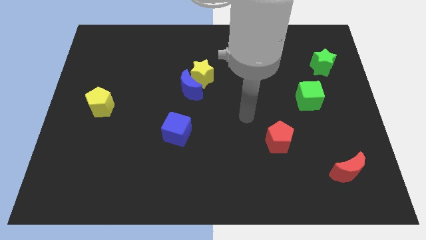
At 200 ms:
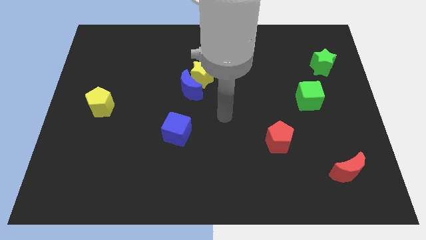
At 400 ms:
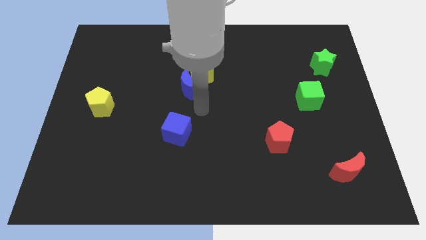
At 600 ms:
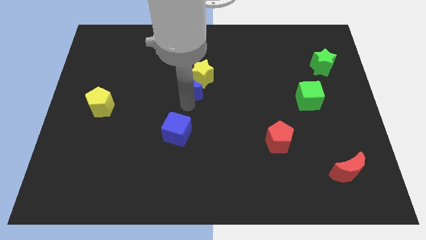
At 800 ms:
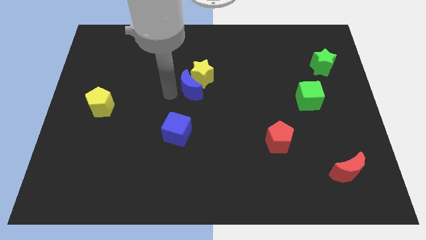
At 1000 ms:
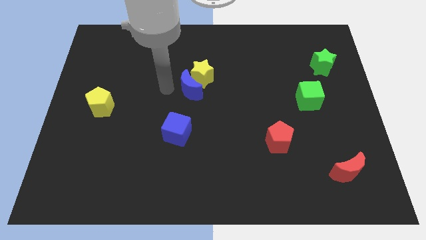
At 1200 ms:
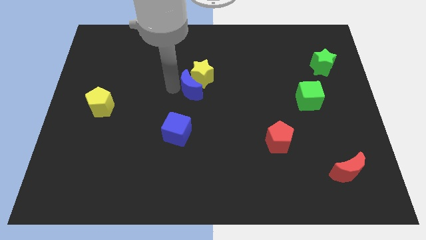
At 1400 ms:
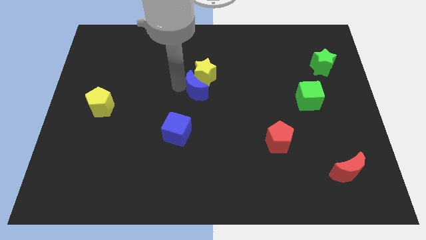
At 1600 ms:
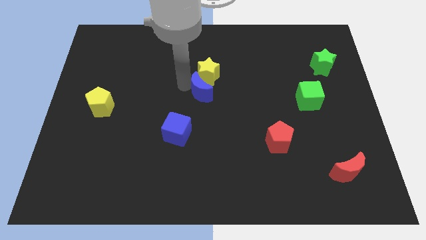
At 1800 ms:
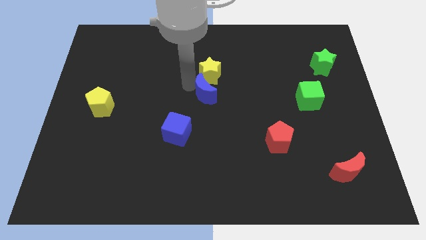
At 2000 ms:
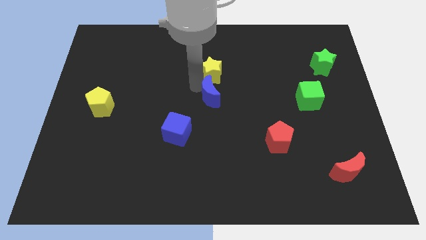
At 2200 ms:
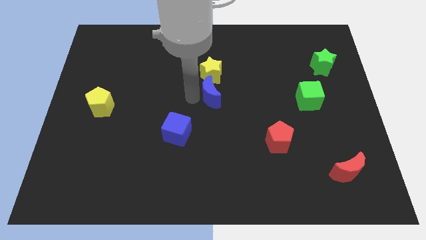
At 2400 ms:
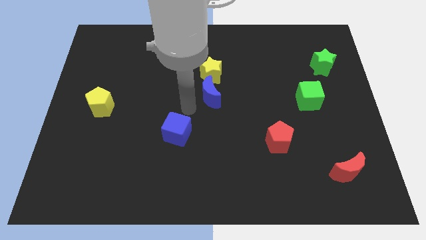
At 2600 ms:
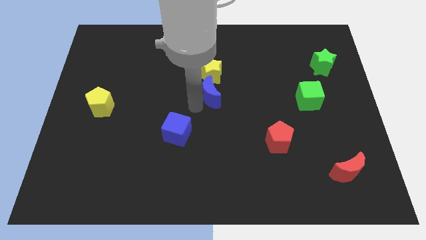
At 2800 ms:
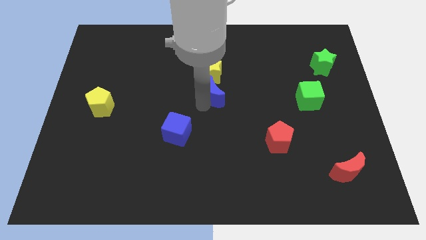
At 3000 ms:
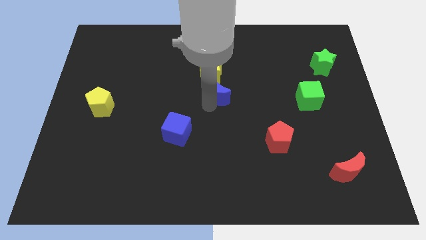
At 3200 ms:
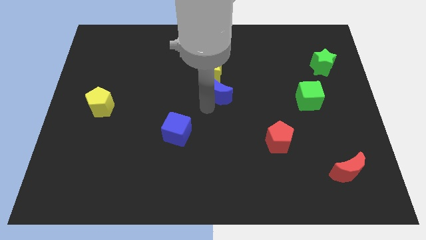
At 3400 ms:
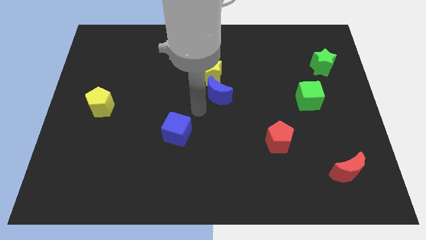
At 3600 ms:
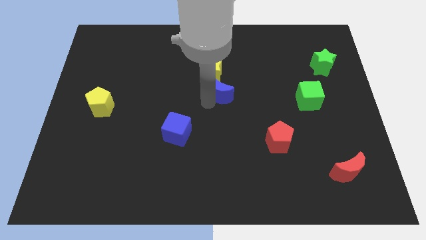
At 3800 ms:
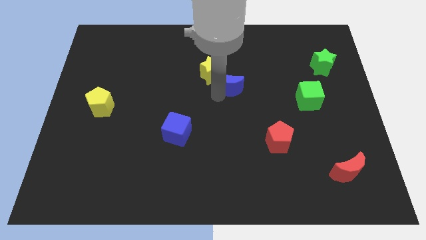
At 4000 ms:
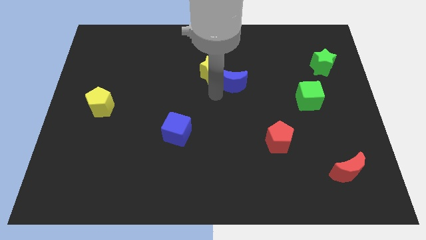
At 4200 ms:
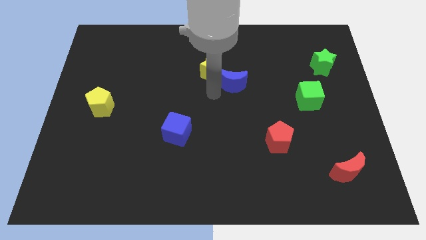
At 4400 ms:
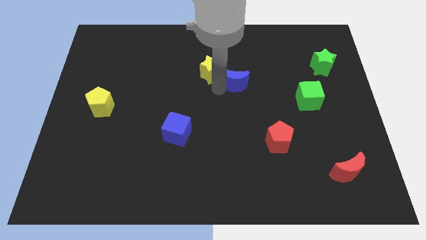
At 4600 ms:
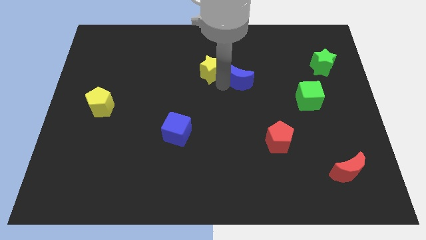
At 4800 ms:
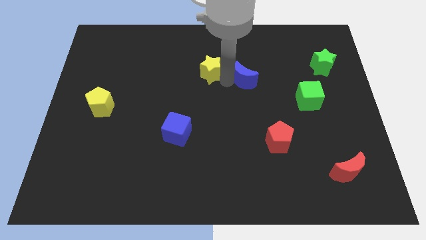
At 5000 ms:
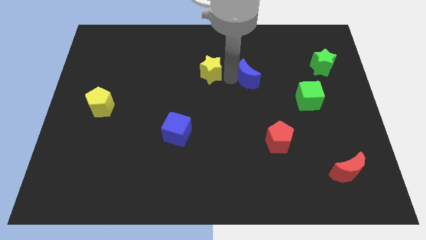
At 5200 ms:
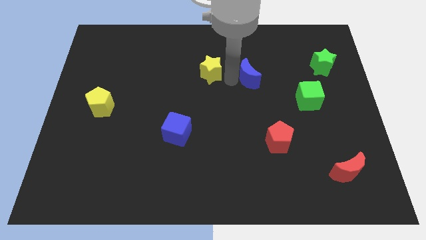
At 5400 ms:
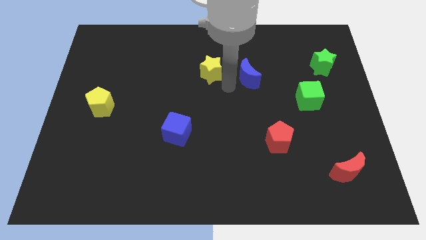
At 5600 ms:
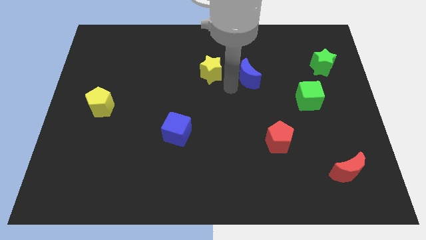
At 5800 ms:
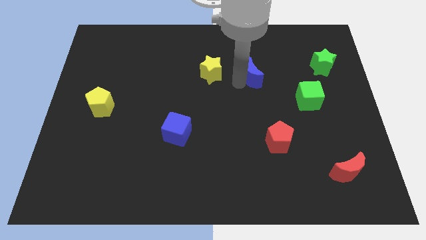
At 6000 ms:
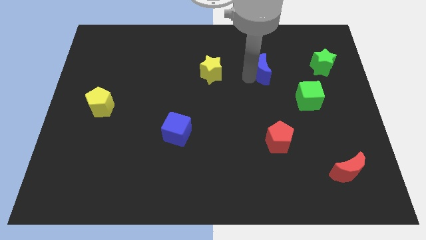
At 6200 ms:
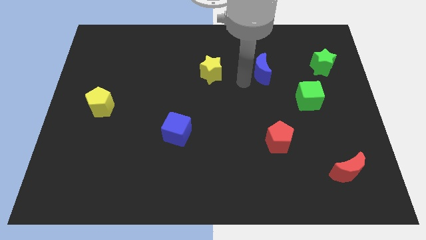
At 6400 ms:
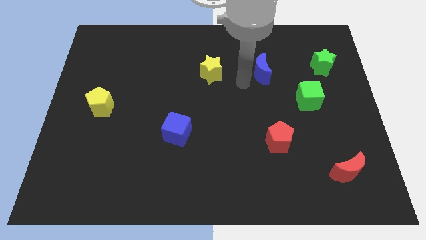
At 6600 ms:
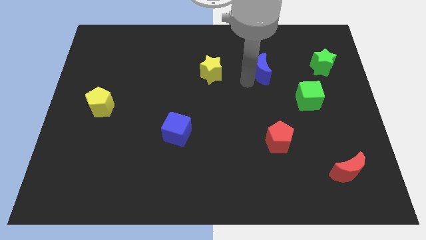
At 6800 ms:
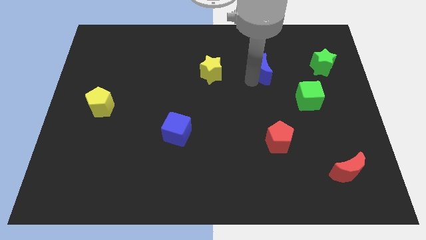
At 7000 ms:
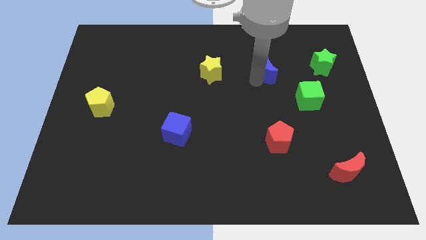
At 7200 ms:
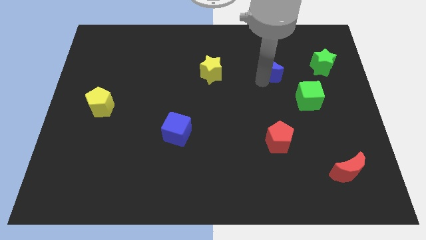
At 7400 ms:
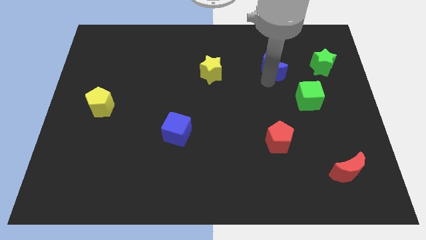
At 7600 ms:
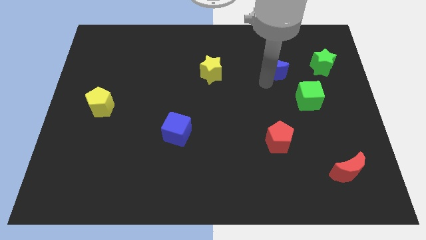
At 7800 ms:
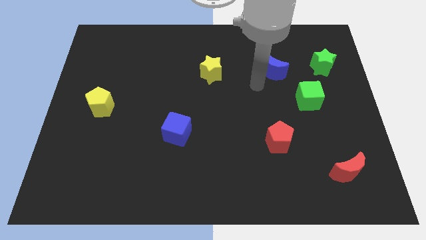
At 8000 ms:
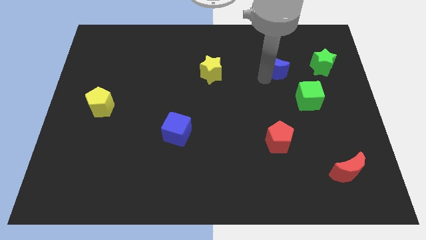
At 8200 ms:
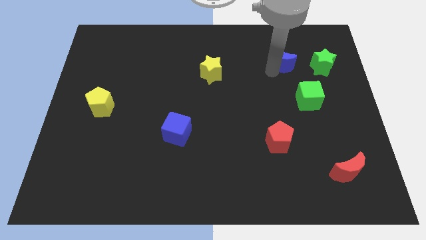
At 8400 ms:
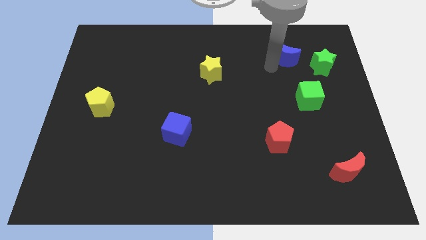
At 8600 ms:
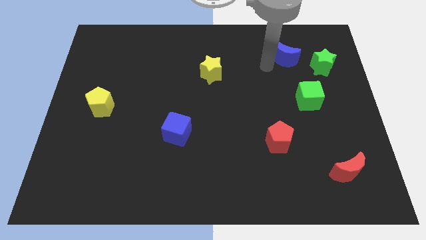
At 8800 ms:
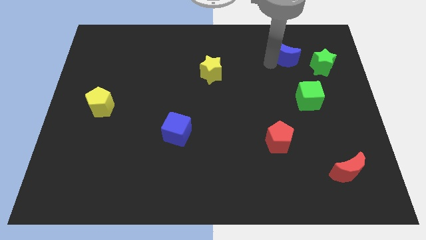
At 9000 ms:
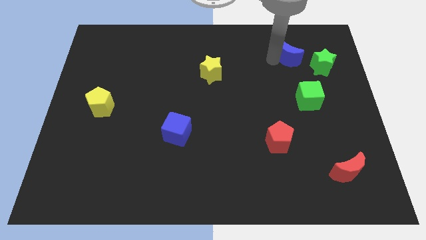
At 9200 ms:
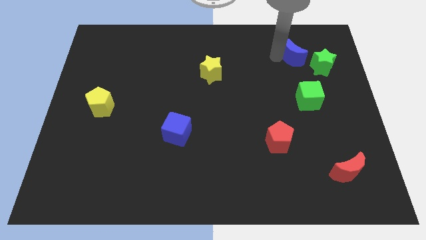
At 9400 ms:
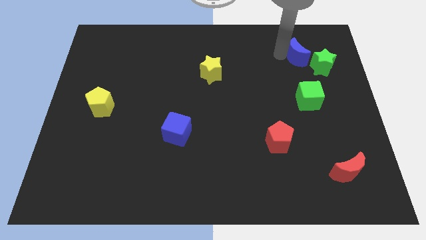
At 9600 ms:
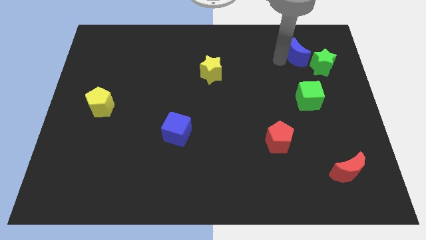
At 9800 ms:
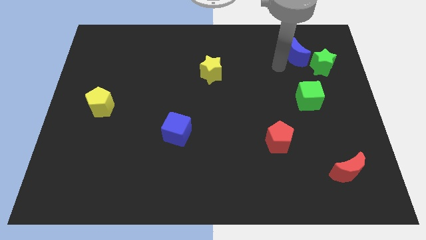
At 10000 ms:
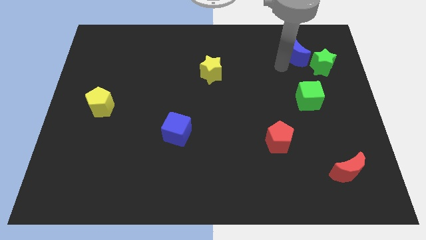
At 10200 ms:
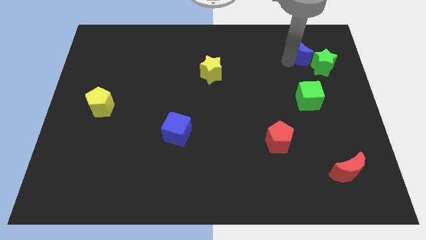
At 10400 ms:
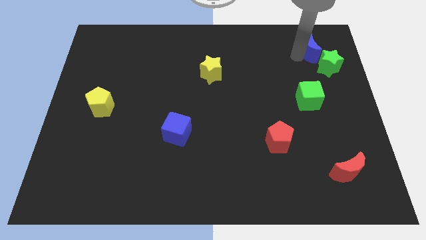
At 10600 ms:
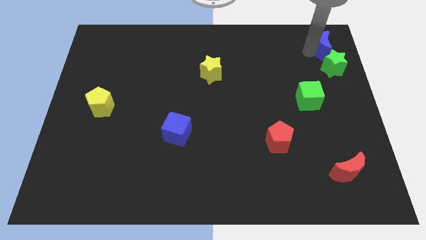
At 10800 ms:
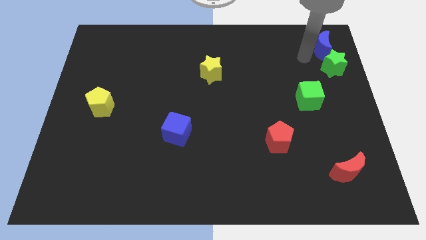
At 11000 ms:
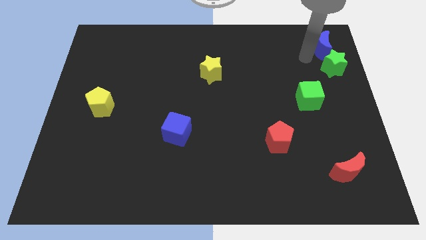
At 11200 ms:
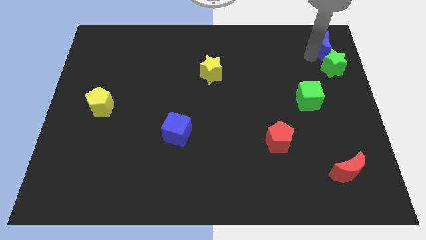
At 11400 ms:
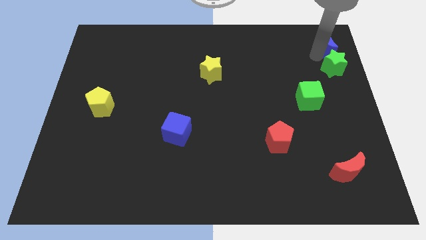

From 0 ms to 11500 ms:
push the blue moon to the top right corner

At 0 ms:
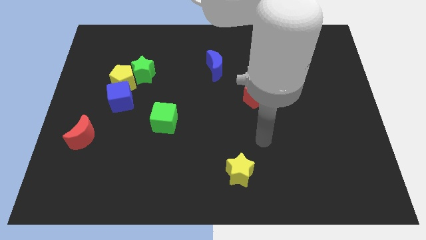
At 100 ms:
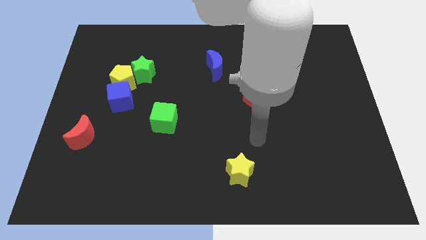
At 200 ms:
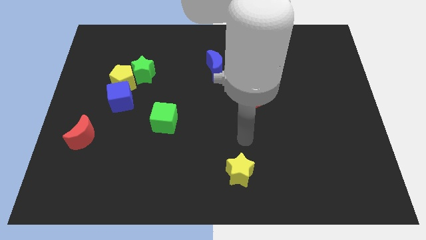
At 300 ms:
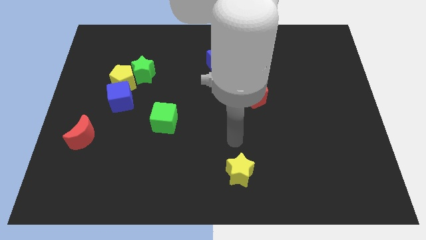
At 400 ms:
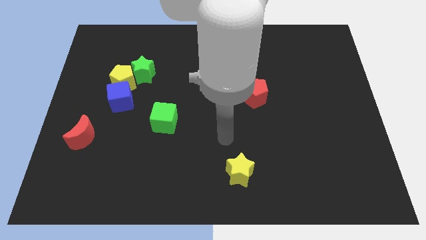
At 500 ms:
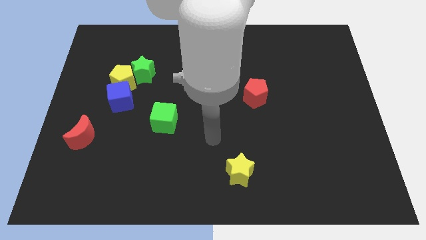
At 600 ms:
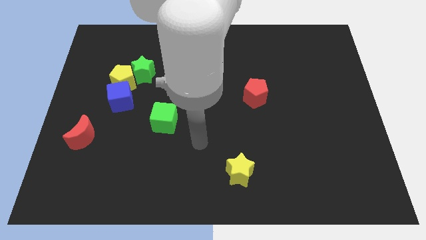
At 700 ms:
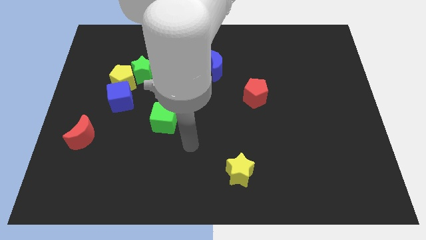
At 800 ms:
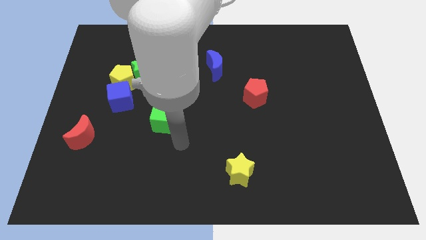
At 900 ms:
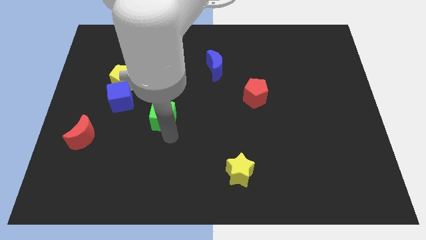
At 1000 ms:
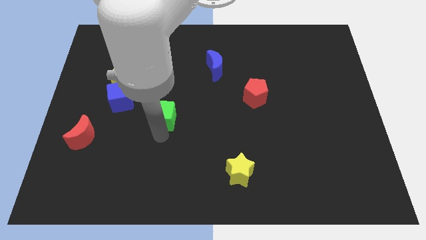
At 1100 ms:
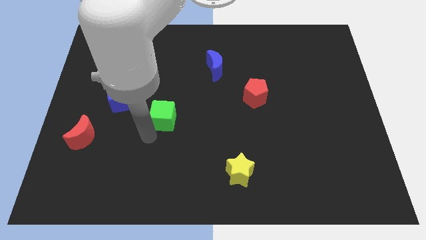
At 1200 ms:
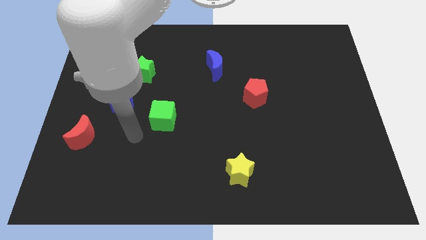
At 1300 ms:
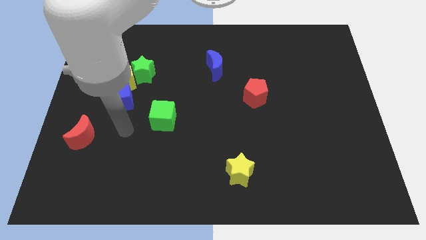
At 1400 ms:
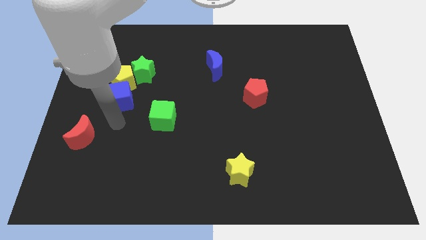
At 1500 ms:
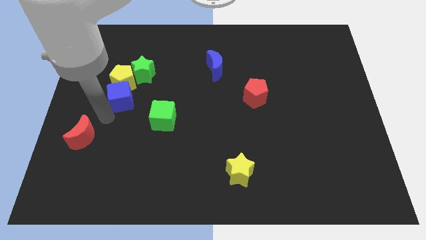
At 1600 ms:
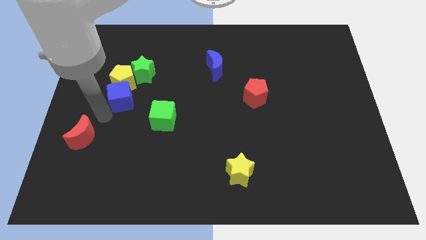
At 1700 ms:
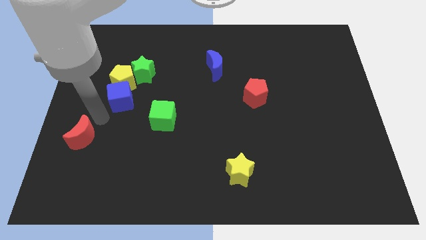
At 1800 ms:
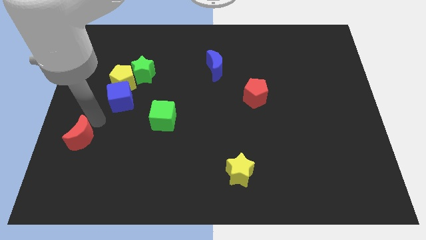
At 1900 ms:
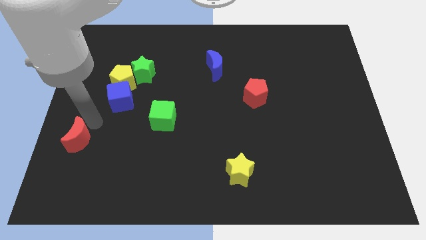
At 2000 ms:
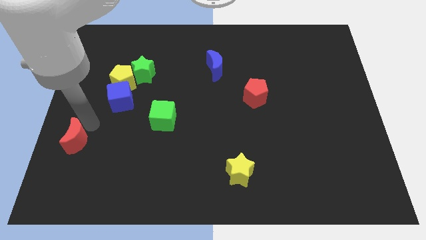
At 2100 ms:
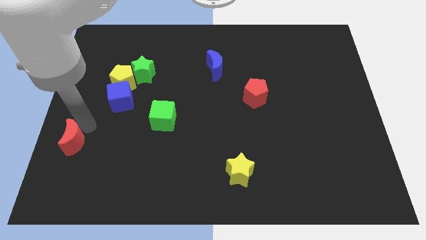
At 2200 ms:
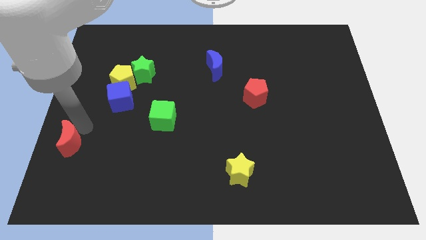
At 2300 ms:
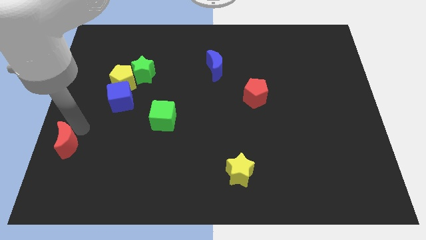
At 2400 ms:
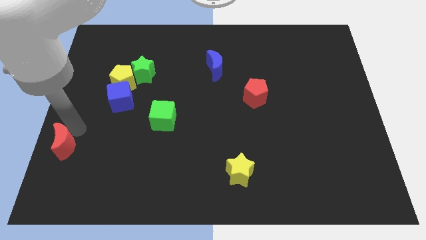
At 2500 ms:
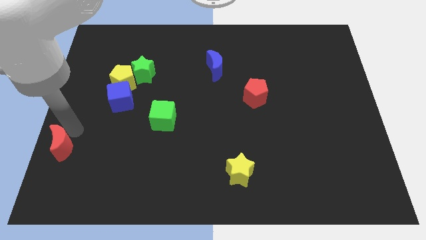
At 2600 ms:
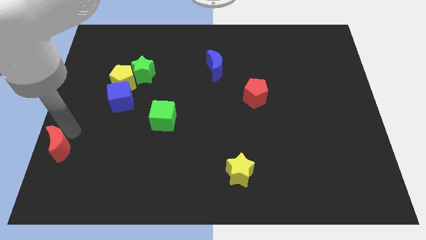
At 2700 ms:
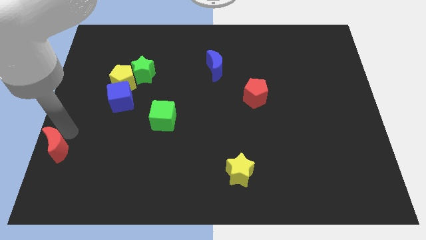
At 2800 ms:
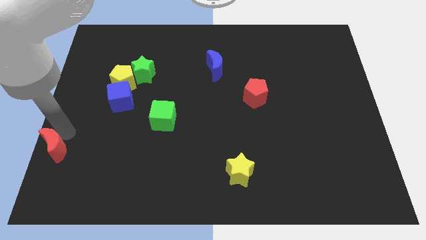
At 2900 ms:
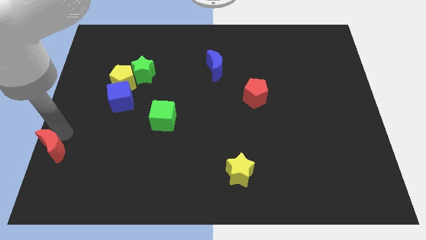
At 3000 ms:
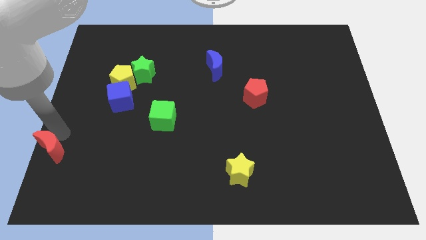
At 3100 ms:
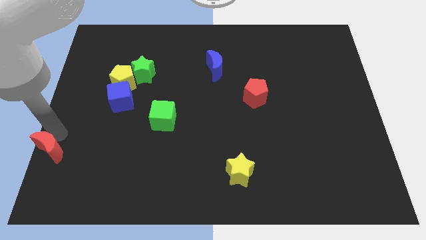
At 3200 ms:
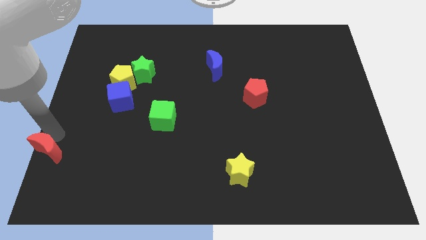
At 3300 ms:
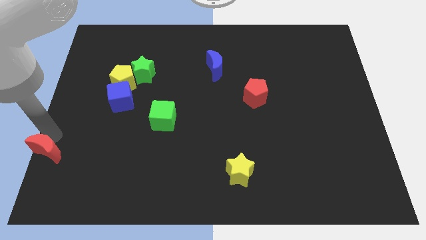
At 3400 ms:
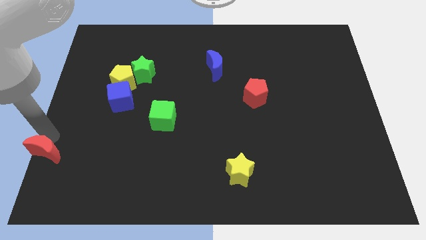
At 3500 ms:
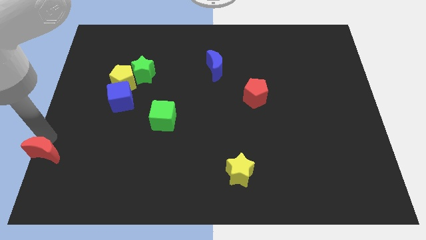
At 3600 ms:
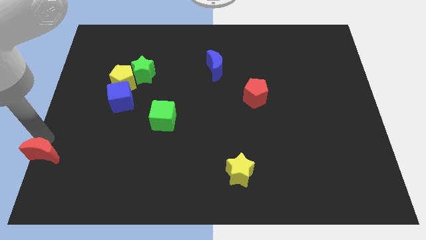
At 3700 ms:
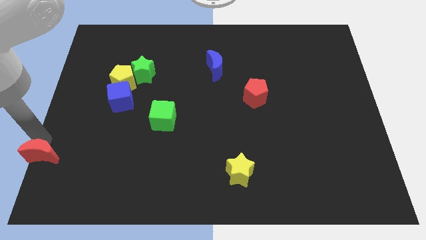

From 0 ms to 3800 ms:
put the red moon to the bottom left of the board
